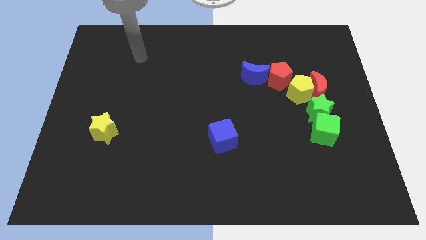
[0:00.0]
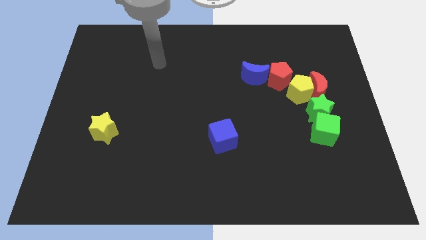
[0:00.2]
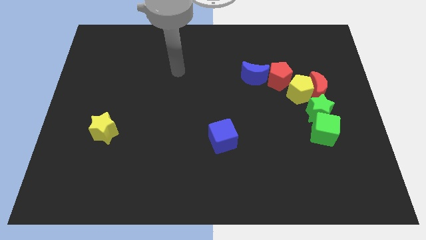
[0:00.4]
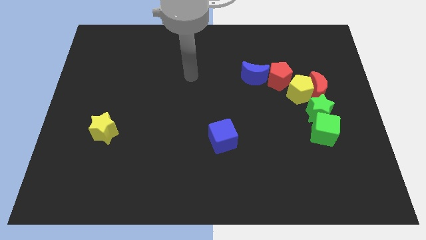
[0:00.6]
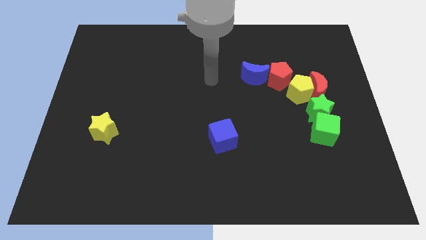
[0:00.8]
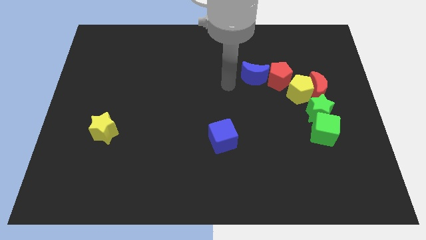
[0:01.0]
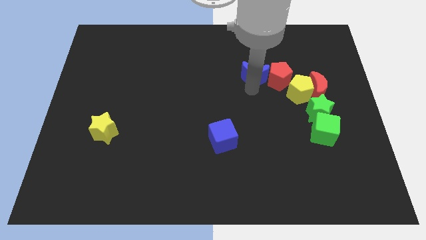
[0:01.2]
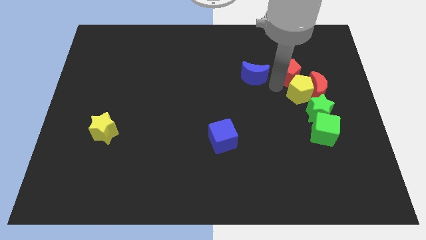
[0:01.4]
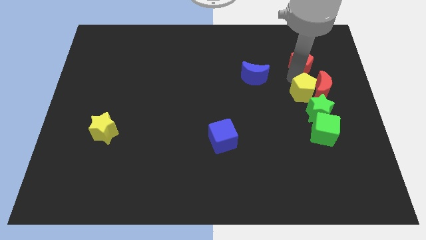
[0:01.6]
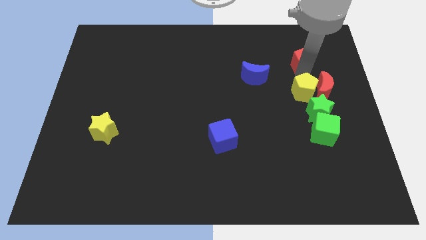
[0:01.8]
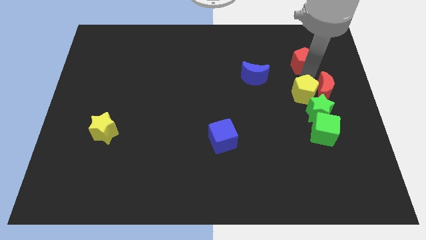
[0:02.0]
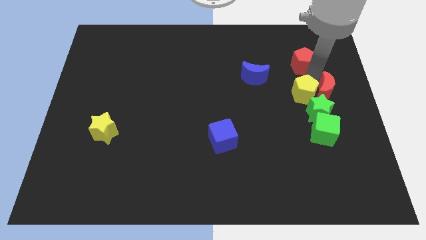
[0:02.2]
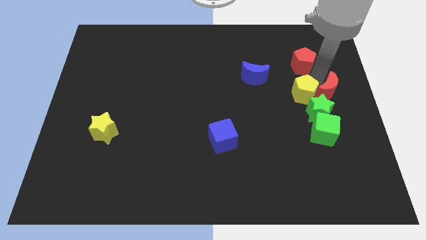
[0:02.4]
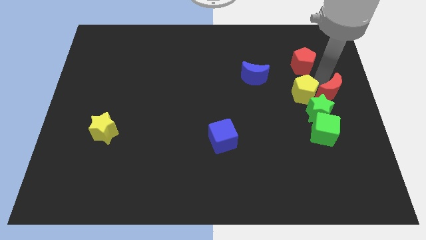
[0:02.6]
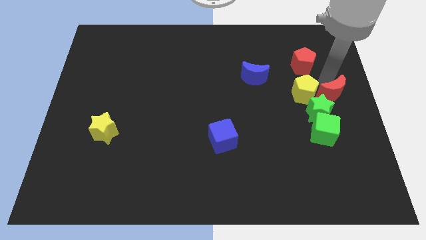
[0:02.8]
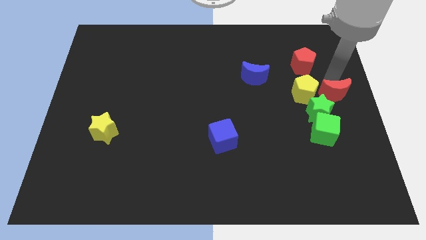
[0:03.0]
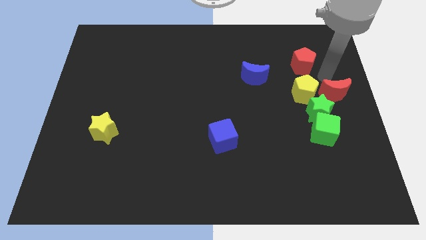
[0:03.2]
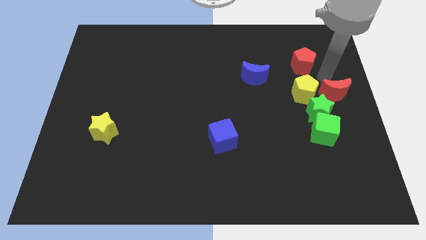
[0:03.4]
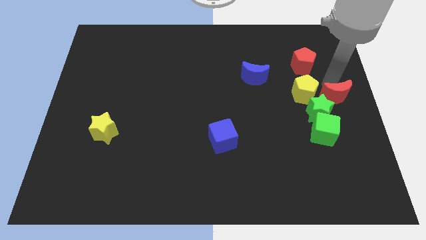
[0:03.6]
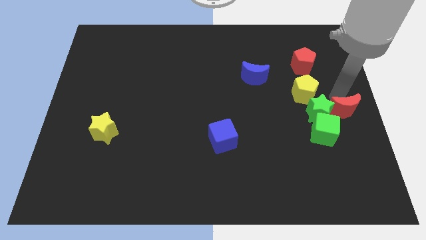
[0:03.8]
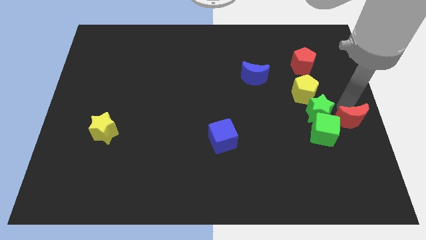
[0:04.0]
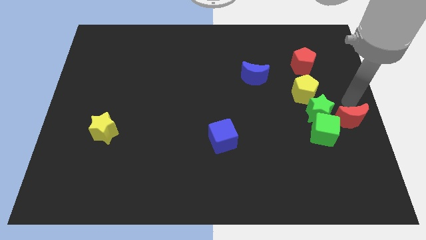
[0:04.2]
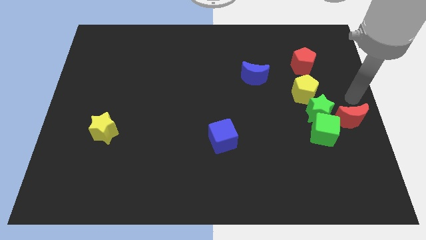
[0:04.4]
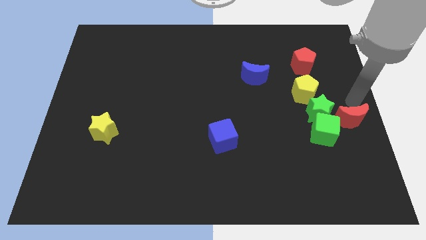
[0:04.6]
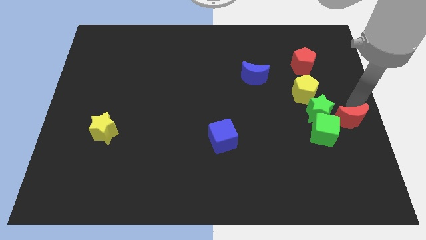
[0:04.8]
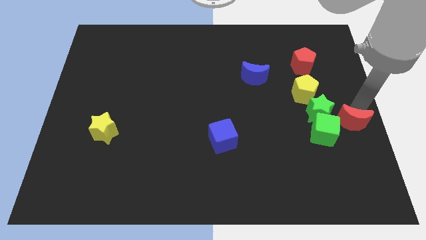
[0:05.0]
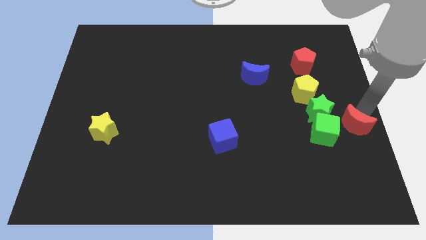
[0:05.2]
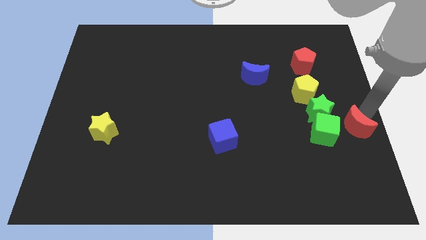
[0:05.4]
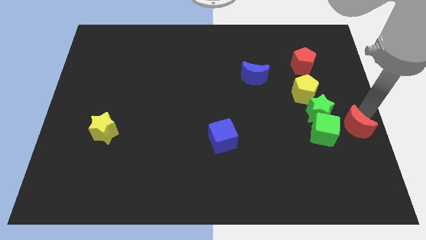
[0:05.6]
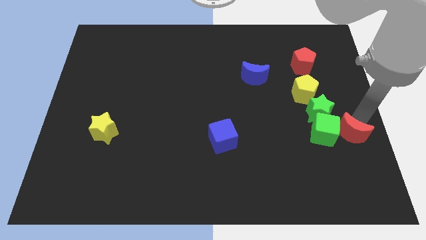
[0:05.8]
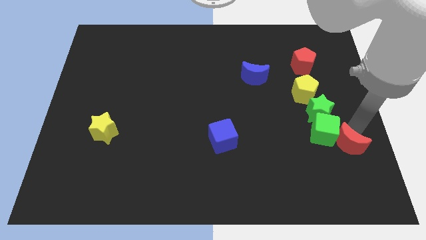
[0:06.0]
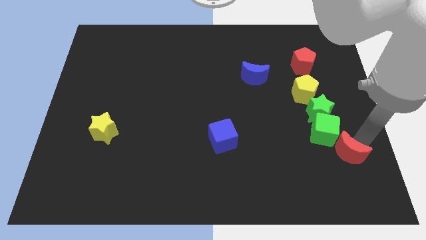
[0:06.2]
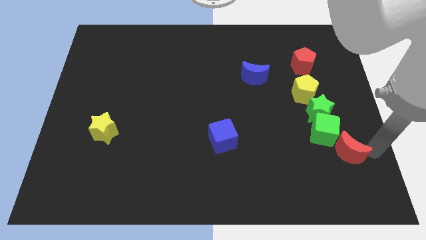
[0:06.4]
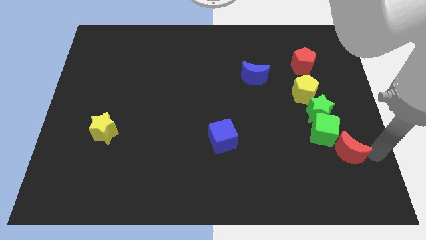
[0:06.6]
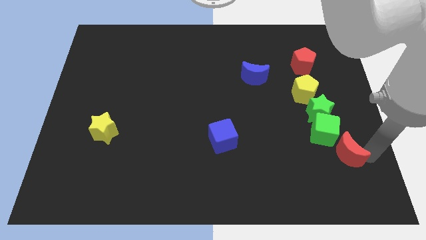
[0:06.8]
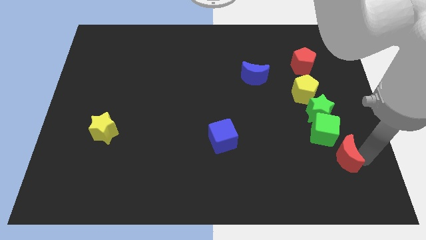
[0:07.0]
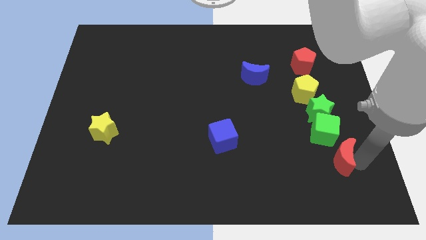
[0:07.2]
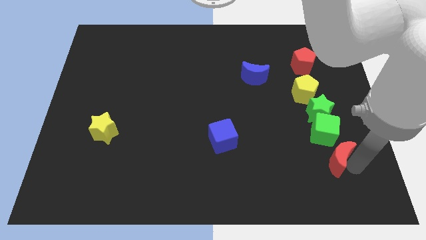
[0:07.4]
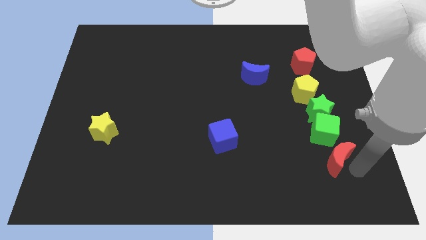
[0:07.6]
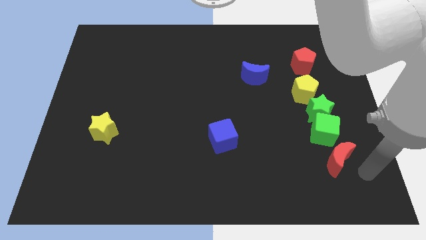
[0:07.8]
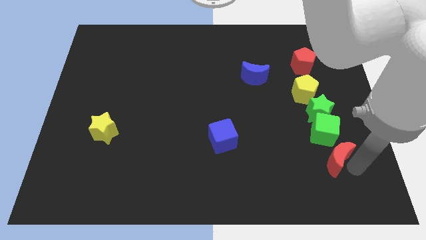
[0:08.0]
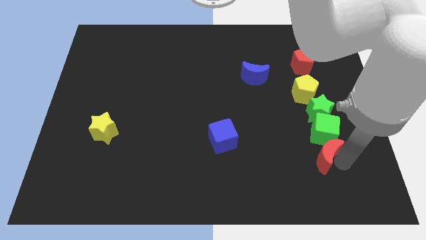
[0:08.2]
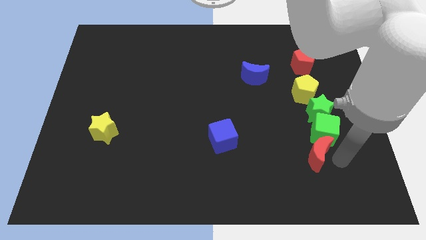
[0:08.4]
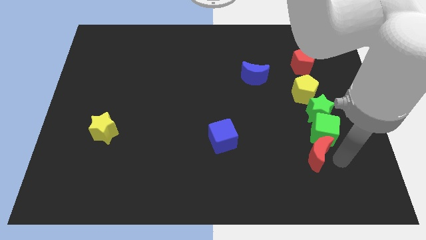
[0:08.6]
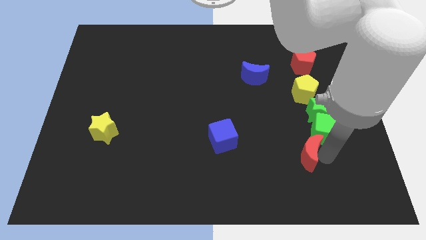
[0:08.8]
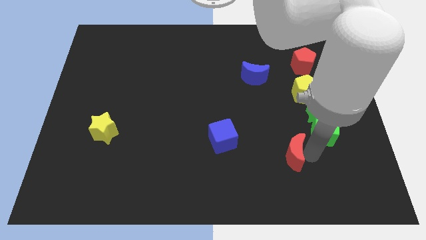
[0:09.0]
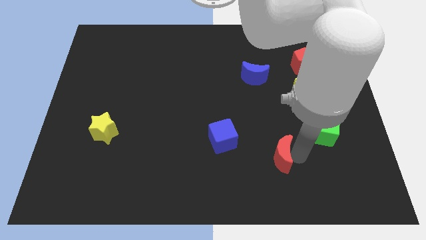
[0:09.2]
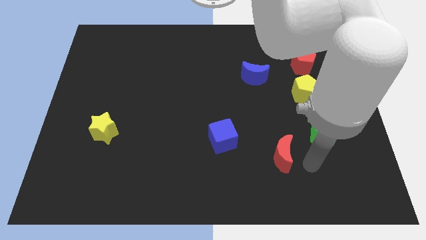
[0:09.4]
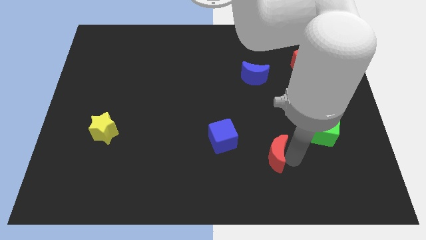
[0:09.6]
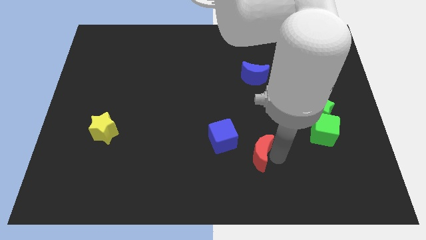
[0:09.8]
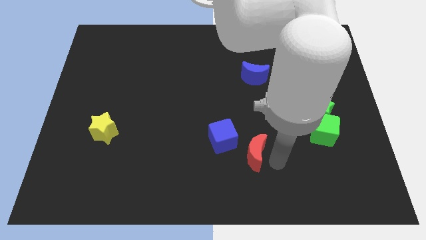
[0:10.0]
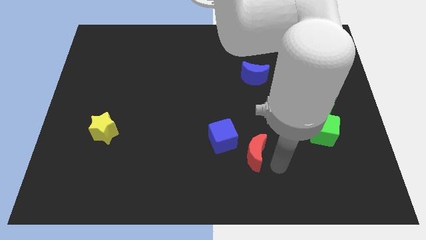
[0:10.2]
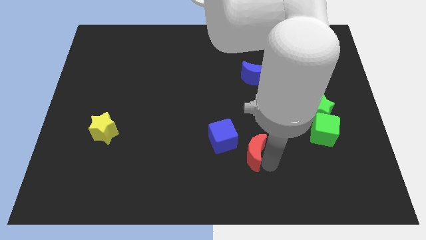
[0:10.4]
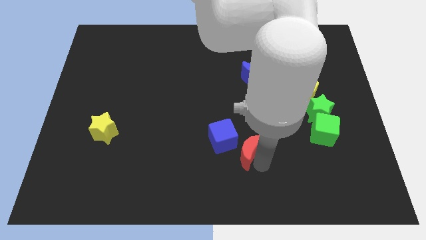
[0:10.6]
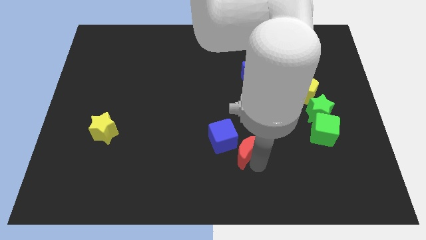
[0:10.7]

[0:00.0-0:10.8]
move the red moon next to the blue cube

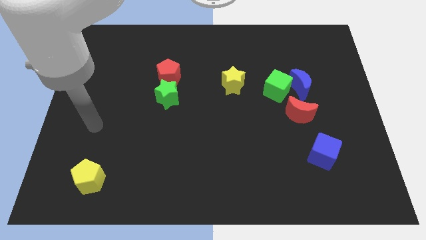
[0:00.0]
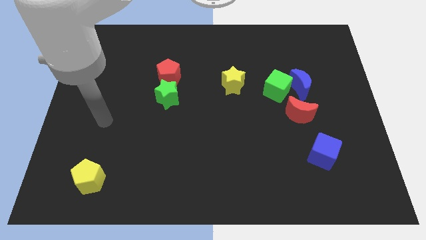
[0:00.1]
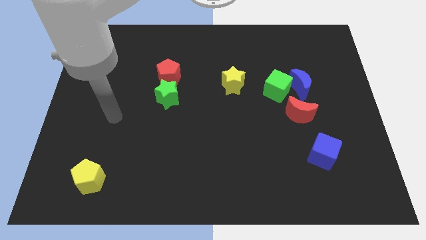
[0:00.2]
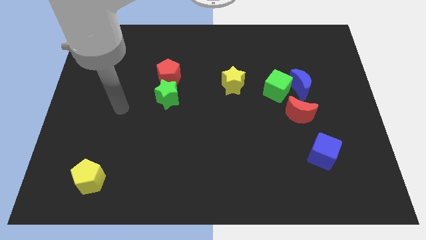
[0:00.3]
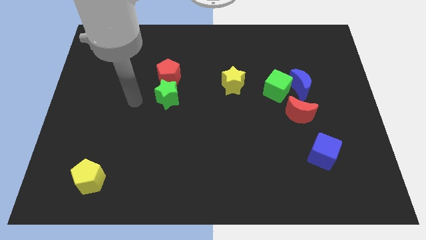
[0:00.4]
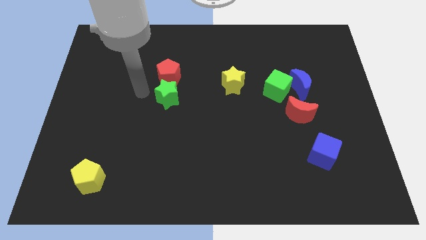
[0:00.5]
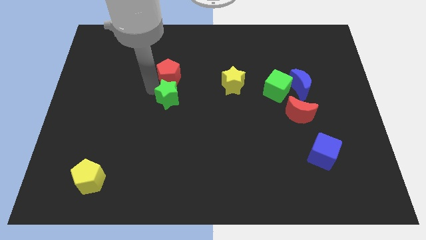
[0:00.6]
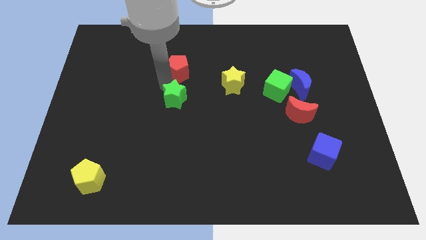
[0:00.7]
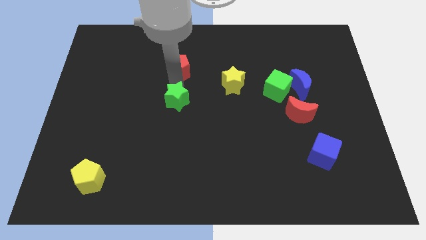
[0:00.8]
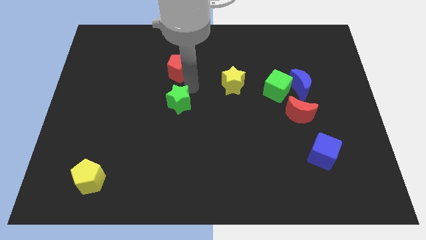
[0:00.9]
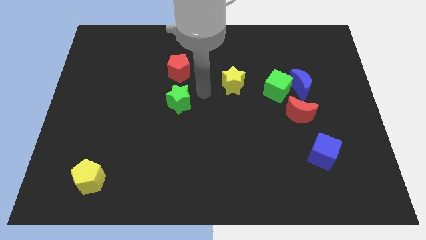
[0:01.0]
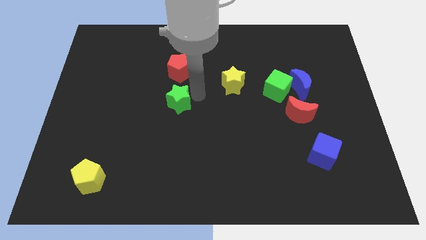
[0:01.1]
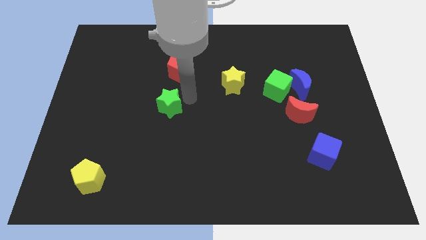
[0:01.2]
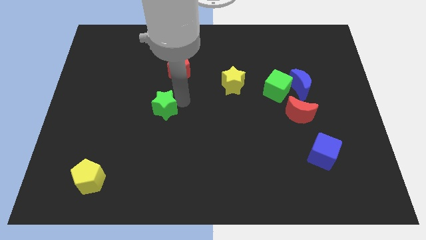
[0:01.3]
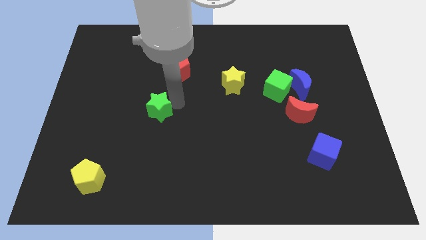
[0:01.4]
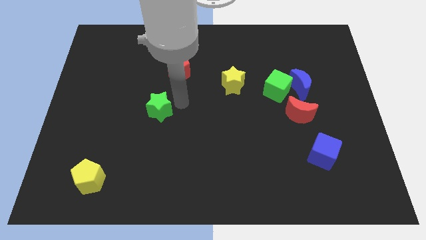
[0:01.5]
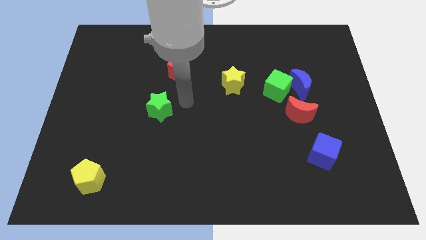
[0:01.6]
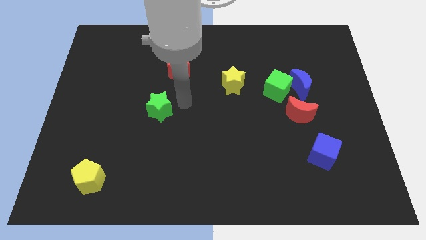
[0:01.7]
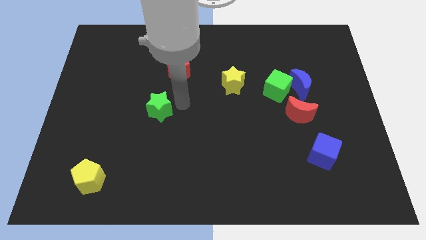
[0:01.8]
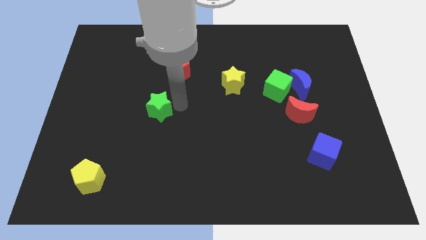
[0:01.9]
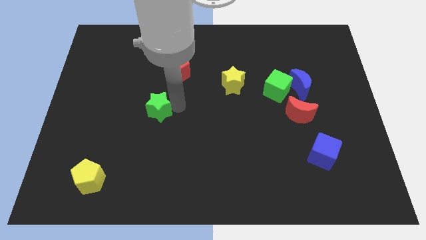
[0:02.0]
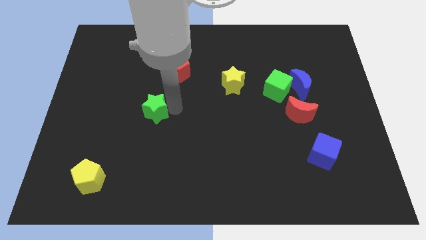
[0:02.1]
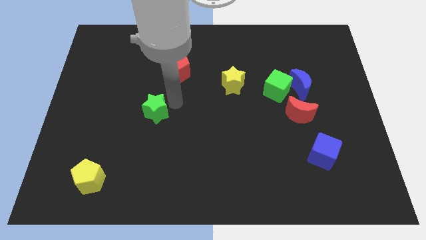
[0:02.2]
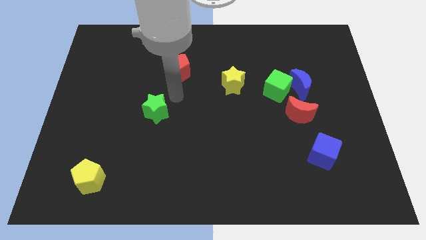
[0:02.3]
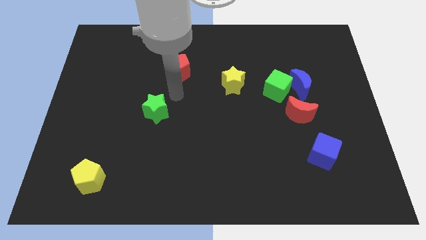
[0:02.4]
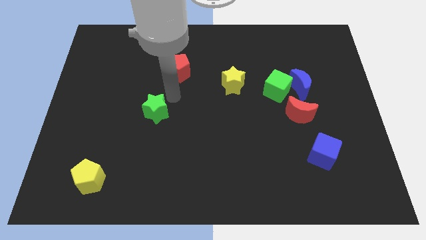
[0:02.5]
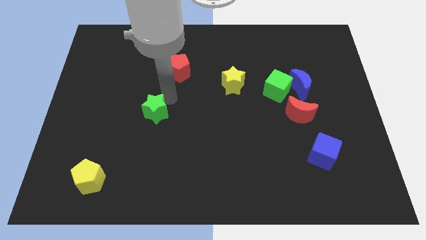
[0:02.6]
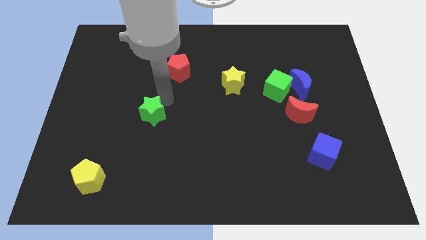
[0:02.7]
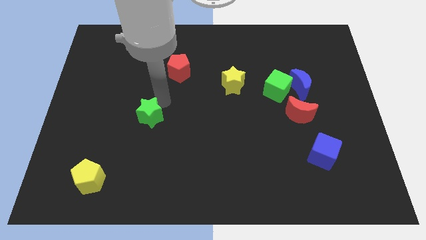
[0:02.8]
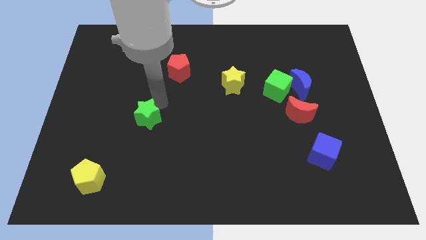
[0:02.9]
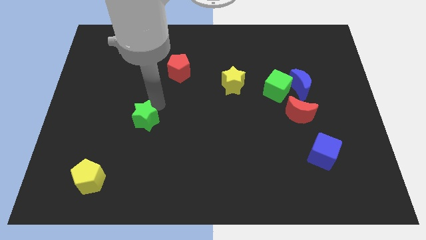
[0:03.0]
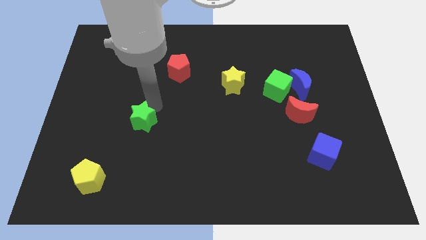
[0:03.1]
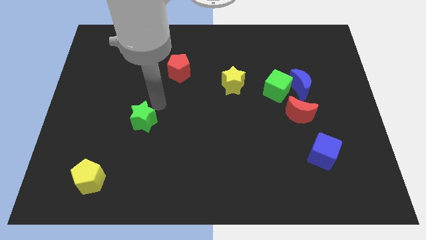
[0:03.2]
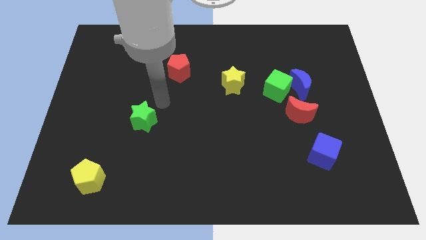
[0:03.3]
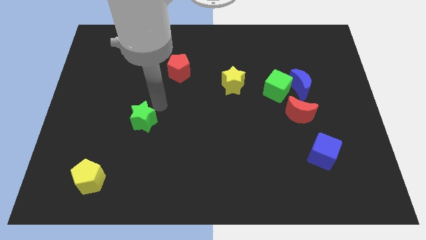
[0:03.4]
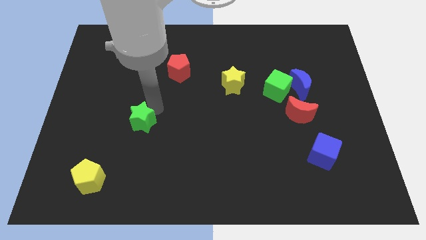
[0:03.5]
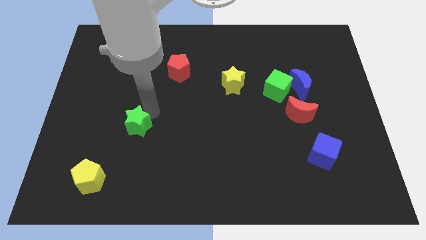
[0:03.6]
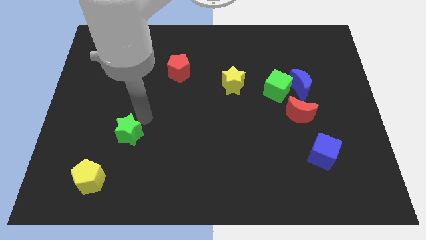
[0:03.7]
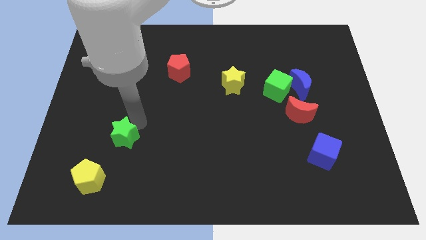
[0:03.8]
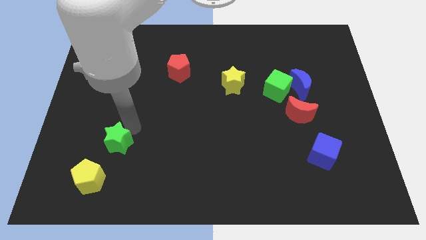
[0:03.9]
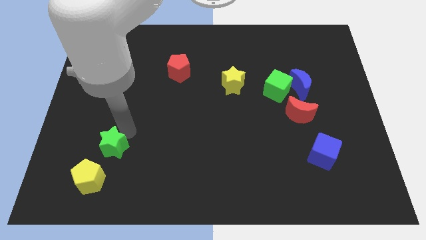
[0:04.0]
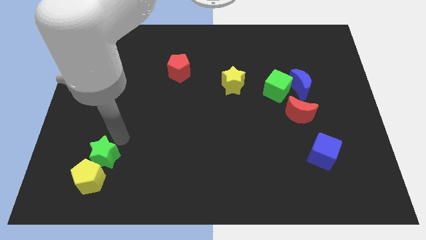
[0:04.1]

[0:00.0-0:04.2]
slide the green star towards the yellow pentagon
